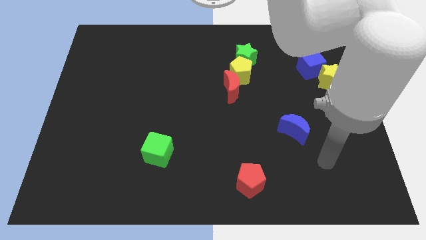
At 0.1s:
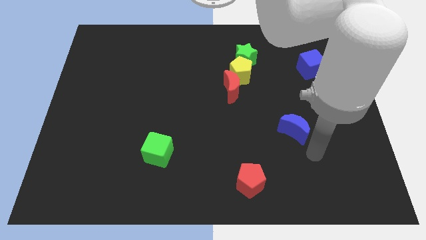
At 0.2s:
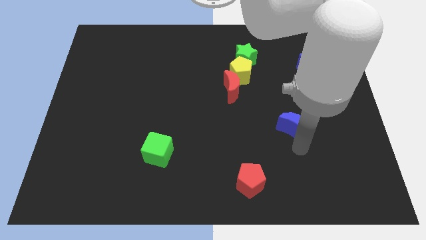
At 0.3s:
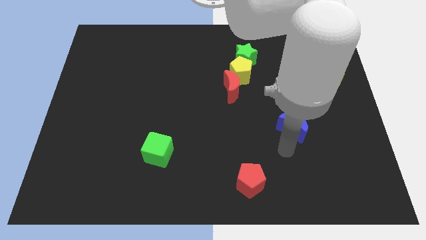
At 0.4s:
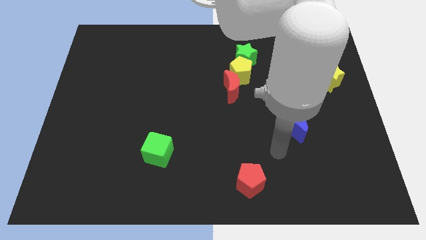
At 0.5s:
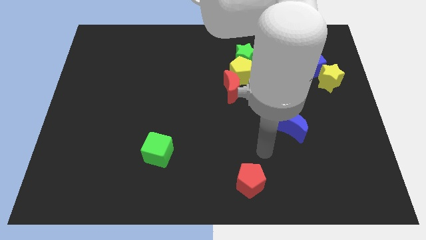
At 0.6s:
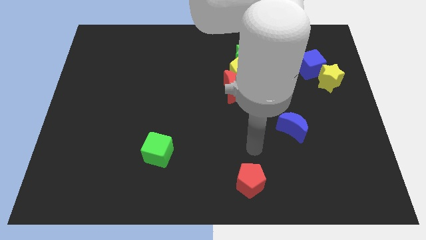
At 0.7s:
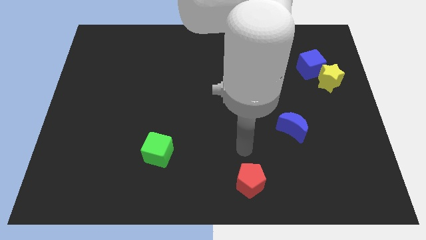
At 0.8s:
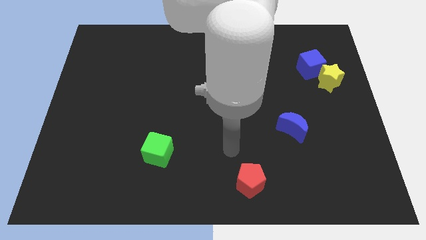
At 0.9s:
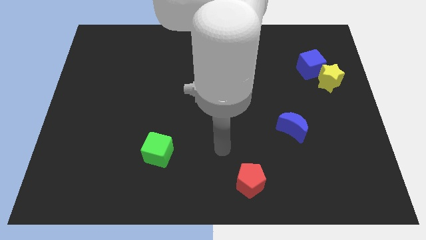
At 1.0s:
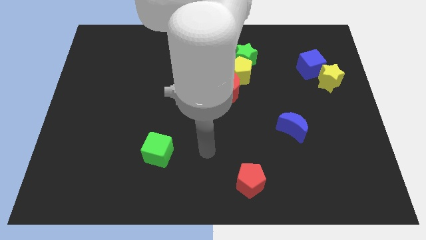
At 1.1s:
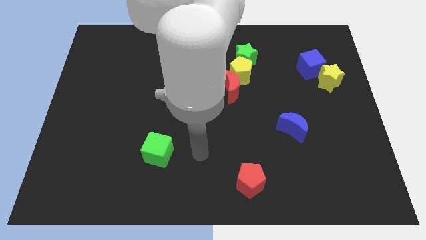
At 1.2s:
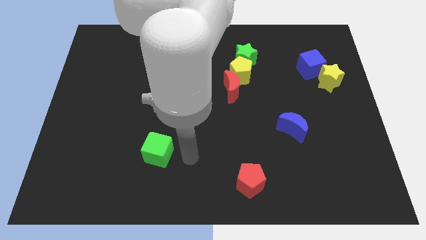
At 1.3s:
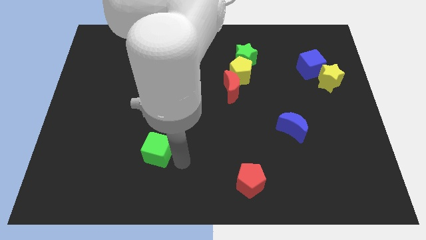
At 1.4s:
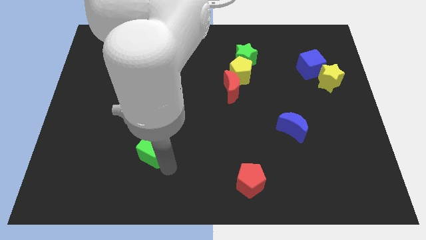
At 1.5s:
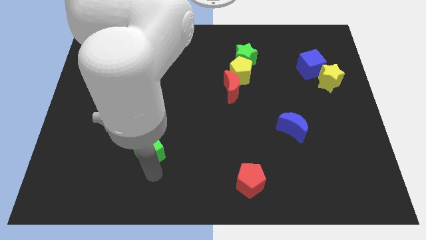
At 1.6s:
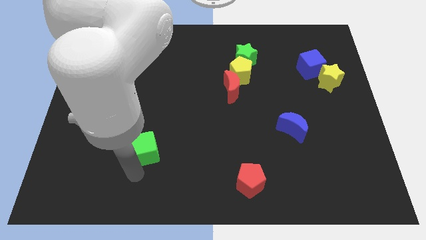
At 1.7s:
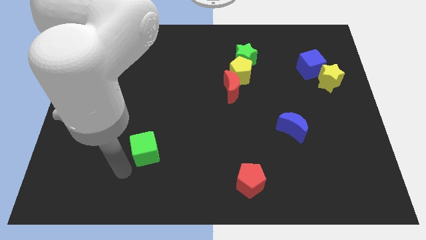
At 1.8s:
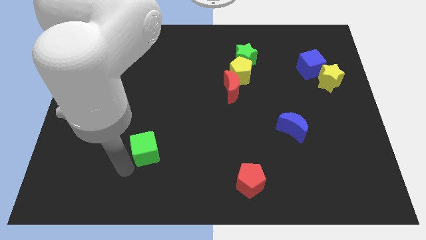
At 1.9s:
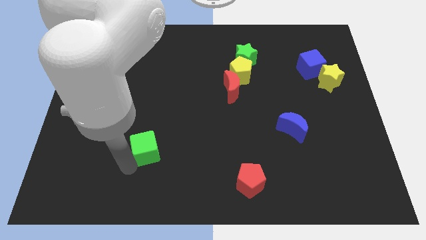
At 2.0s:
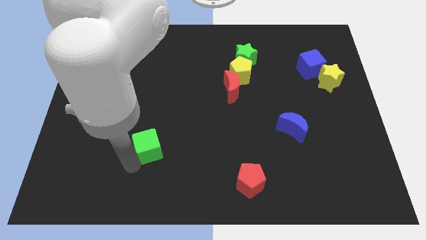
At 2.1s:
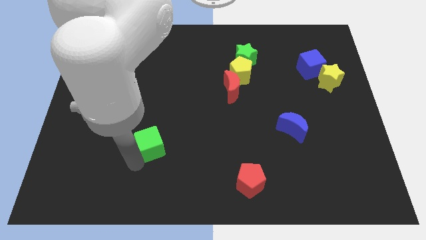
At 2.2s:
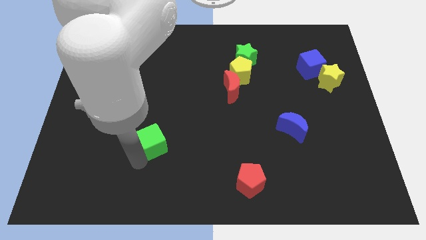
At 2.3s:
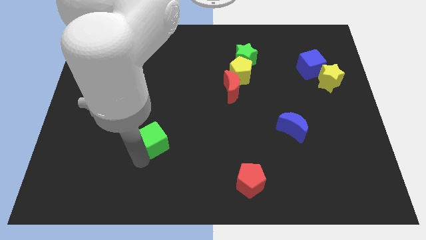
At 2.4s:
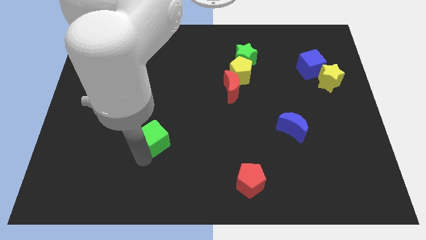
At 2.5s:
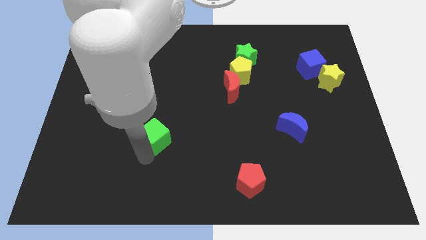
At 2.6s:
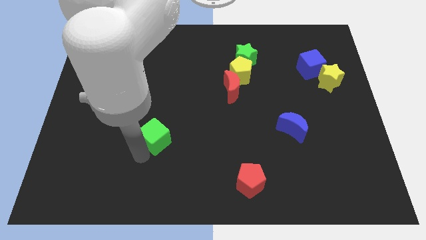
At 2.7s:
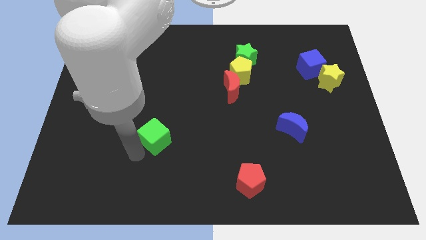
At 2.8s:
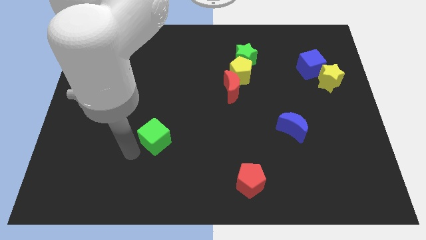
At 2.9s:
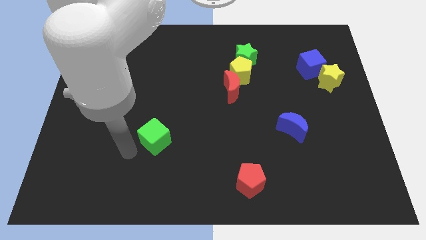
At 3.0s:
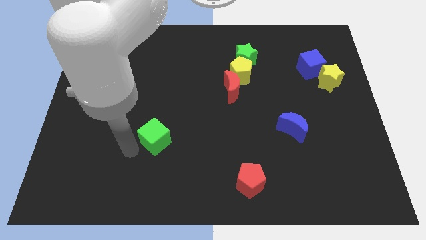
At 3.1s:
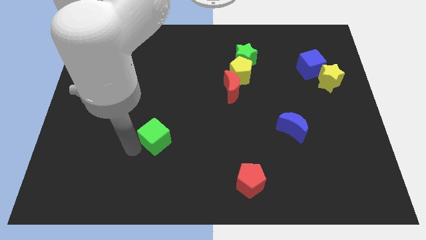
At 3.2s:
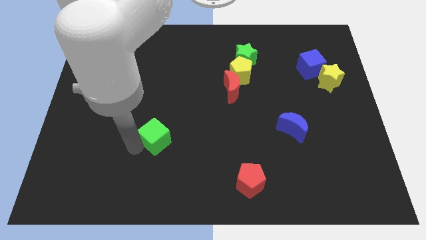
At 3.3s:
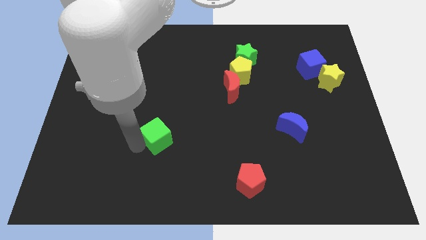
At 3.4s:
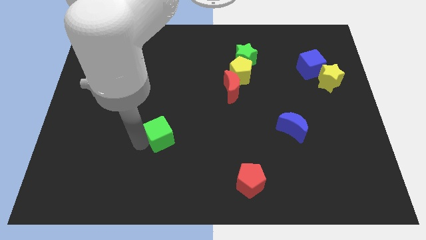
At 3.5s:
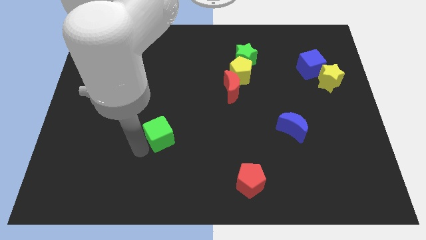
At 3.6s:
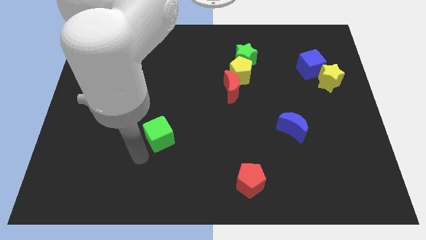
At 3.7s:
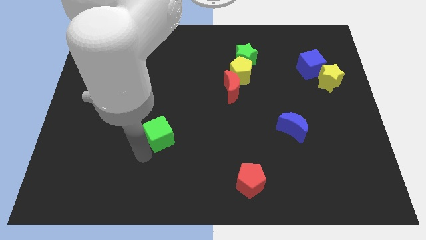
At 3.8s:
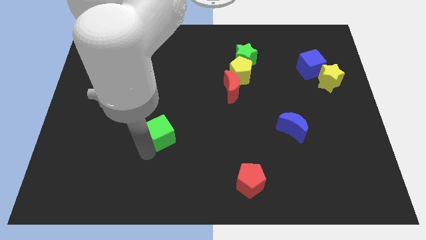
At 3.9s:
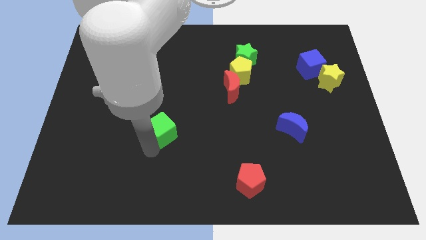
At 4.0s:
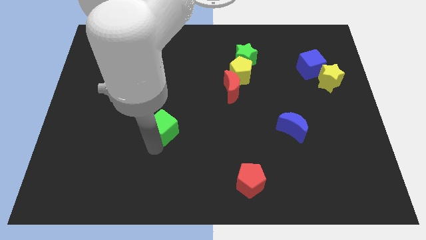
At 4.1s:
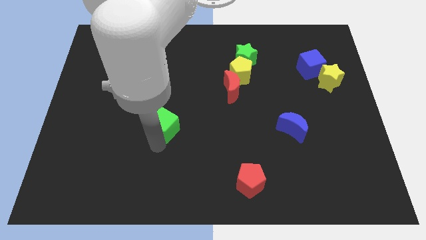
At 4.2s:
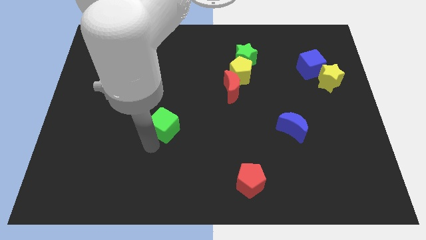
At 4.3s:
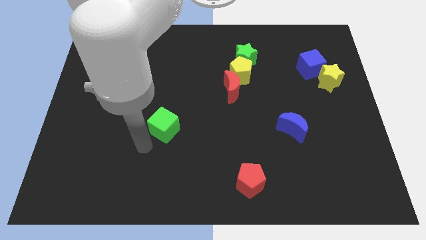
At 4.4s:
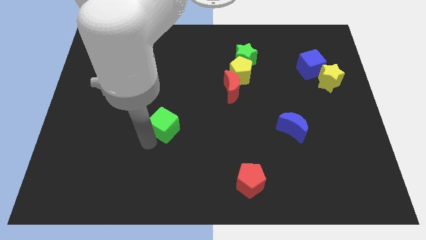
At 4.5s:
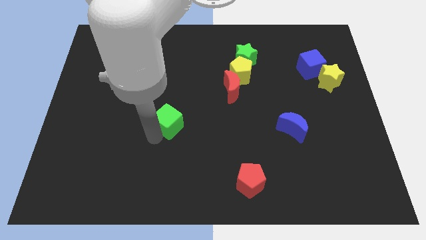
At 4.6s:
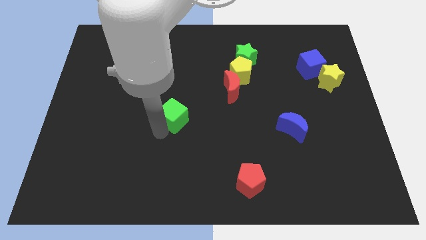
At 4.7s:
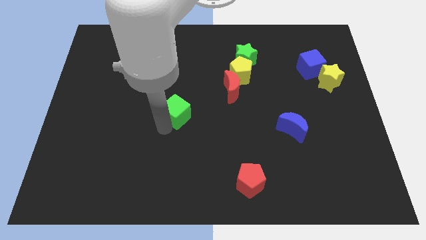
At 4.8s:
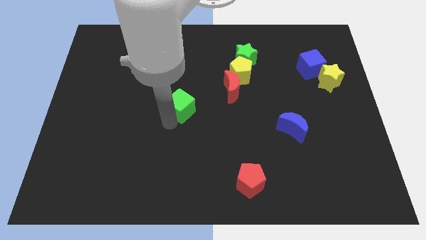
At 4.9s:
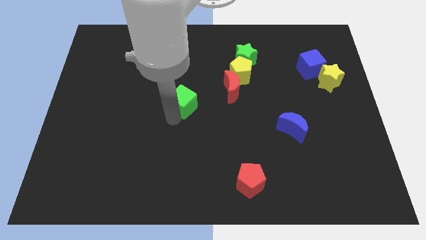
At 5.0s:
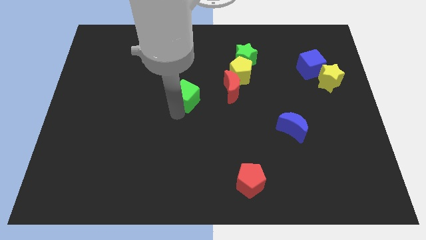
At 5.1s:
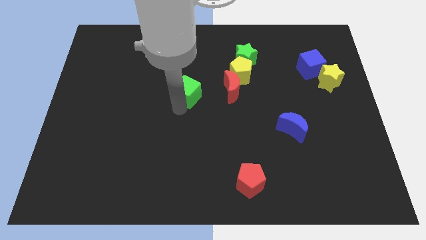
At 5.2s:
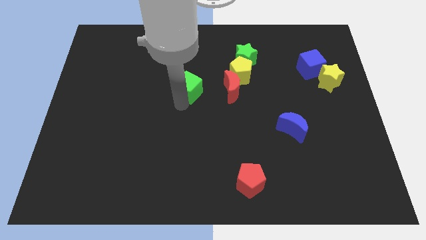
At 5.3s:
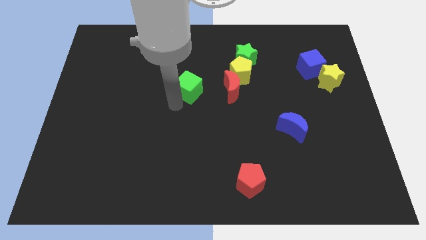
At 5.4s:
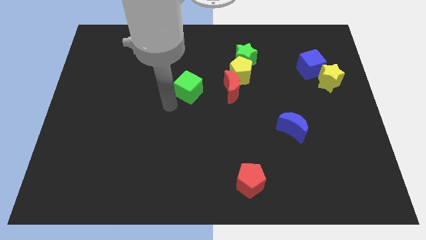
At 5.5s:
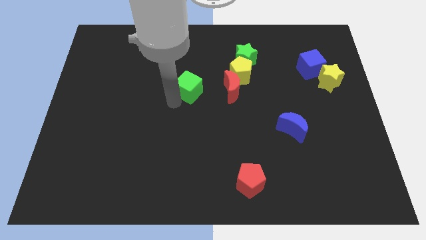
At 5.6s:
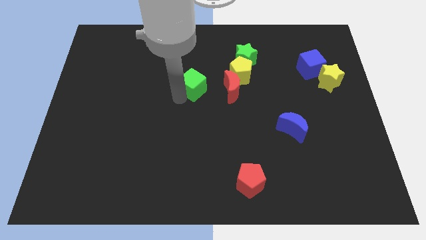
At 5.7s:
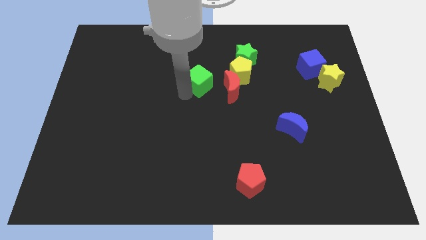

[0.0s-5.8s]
put the green cube to the top left side of the red moon

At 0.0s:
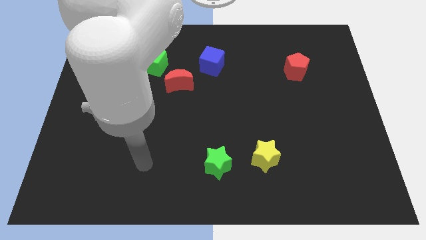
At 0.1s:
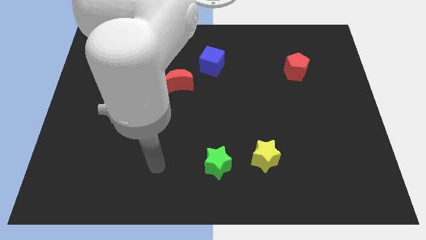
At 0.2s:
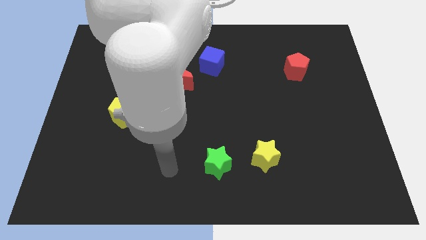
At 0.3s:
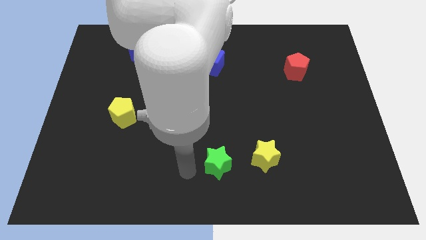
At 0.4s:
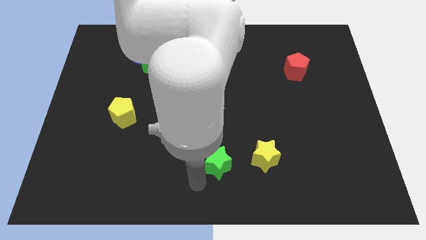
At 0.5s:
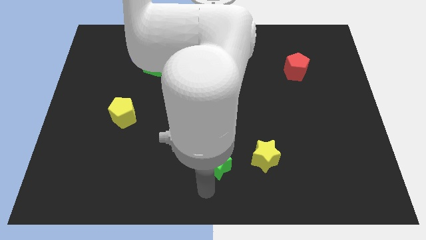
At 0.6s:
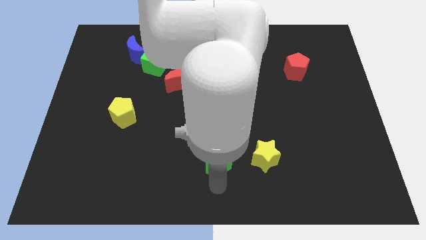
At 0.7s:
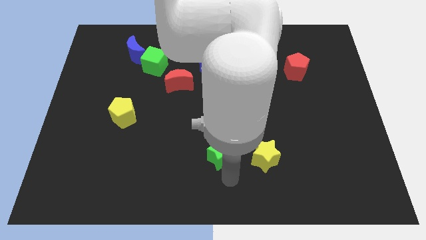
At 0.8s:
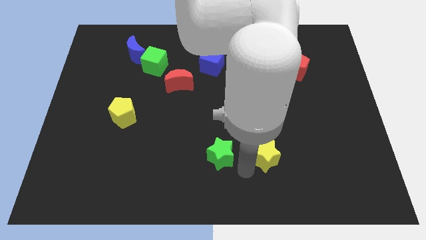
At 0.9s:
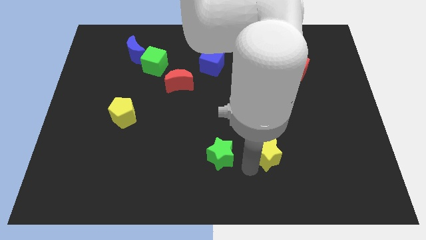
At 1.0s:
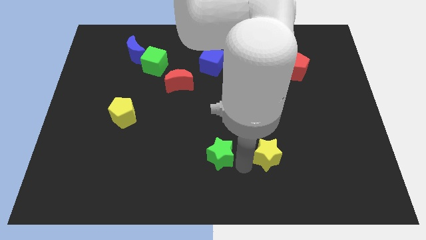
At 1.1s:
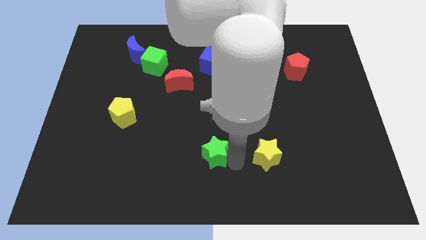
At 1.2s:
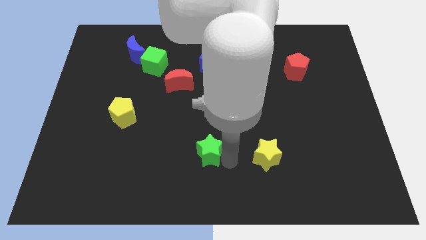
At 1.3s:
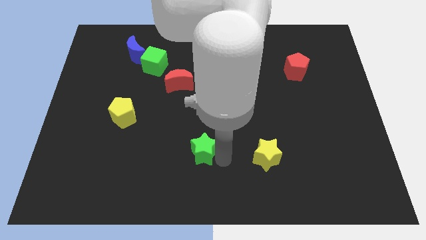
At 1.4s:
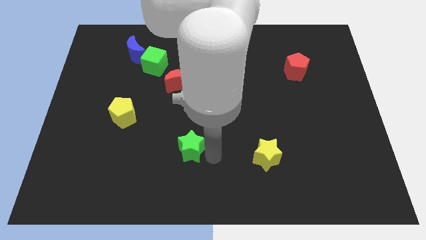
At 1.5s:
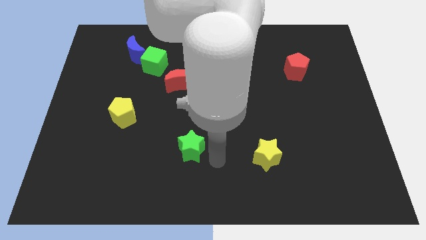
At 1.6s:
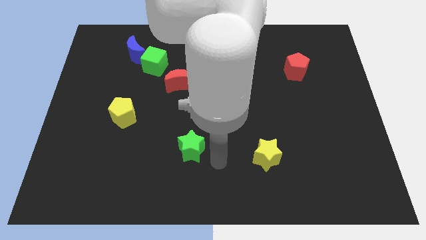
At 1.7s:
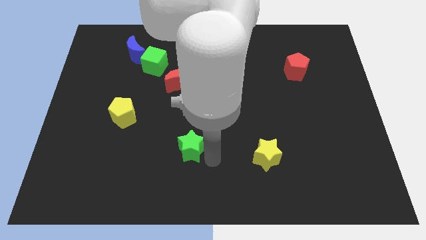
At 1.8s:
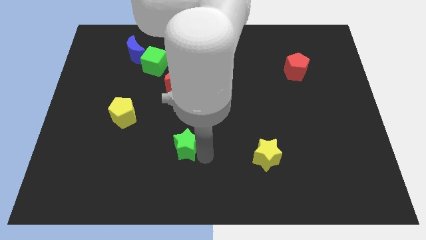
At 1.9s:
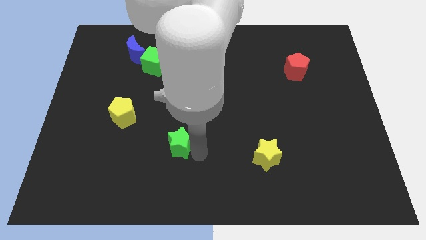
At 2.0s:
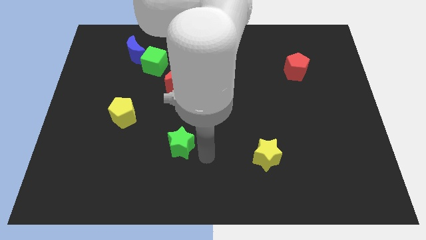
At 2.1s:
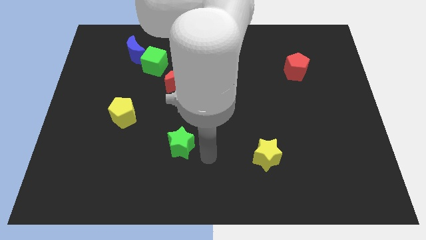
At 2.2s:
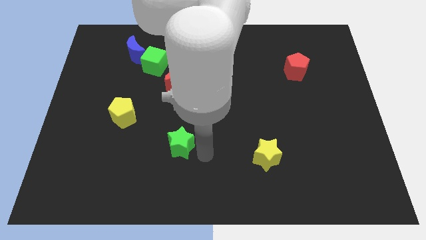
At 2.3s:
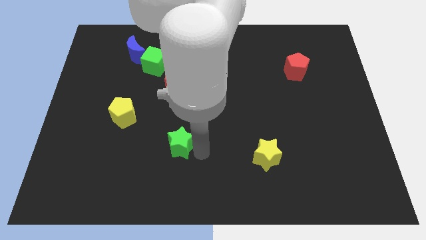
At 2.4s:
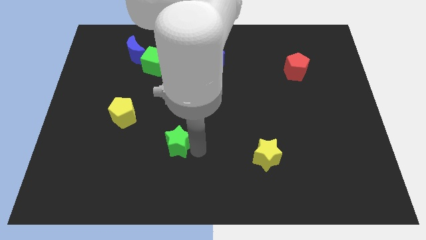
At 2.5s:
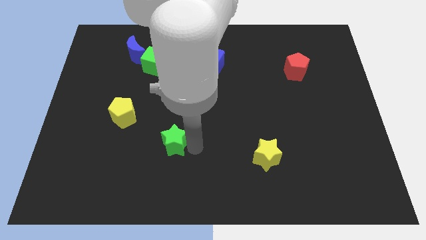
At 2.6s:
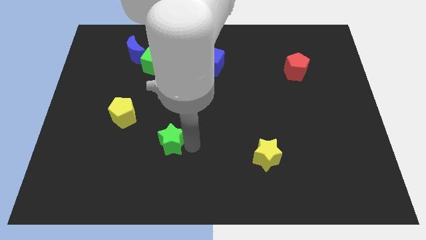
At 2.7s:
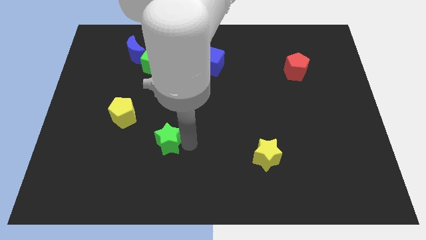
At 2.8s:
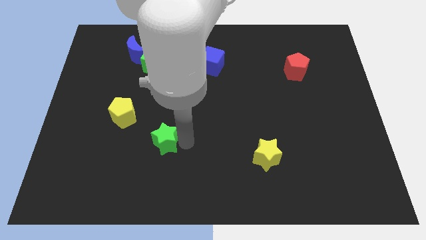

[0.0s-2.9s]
push the green star to the bottom right side of the yellow pentagon
